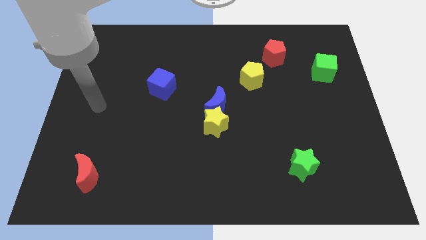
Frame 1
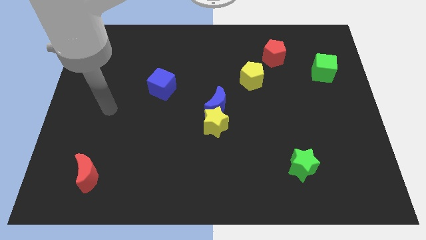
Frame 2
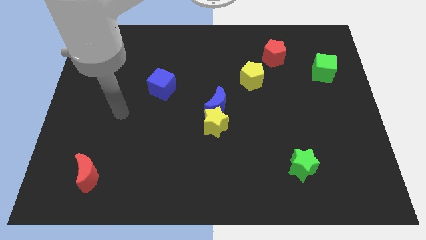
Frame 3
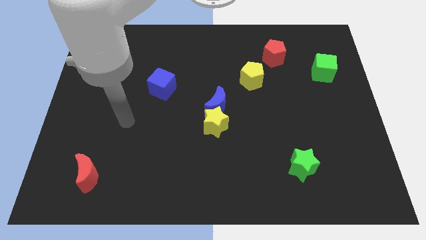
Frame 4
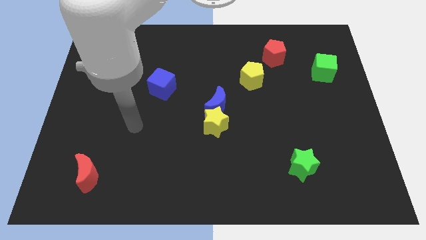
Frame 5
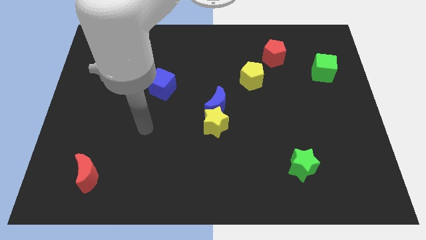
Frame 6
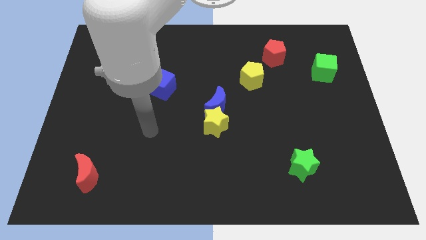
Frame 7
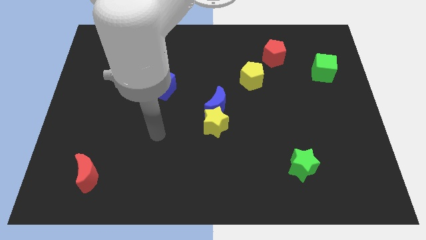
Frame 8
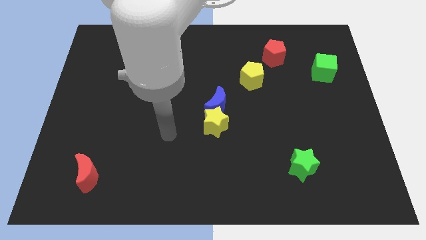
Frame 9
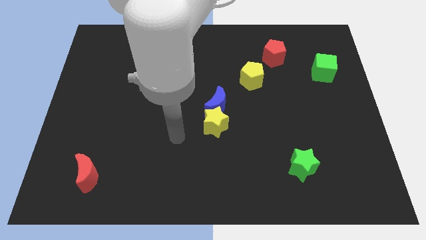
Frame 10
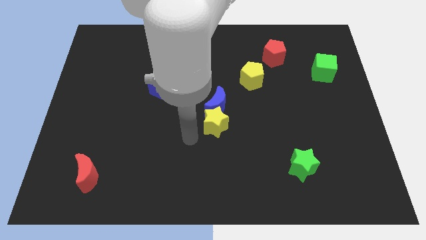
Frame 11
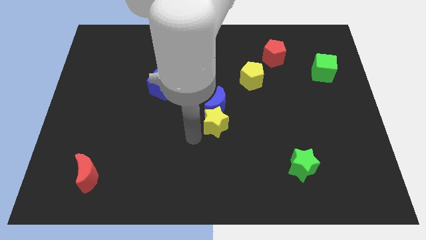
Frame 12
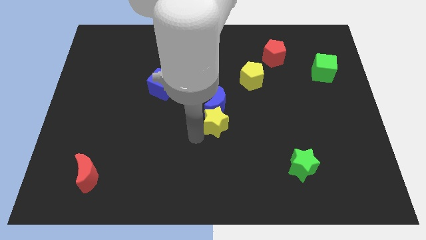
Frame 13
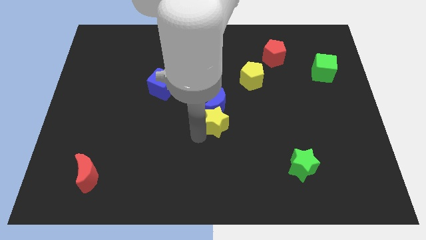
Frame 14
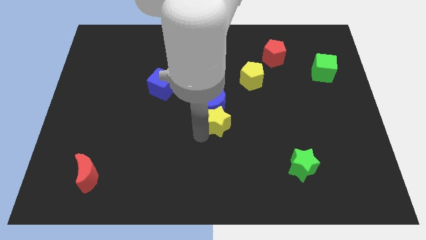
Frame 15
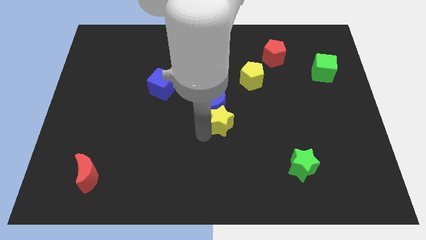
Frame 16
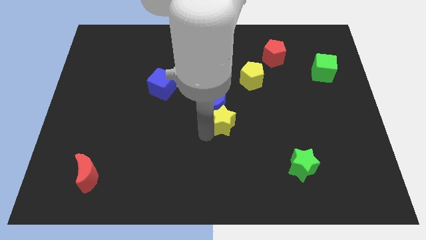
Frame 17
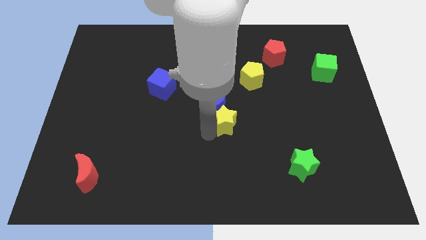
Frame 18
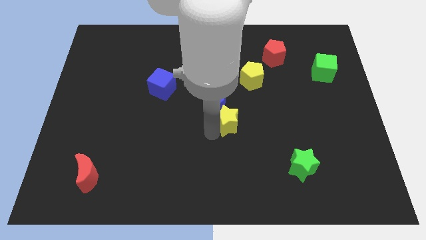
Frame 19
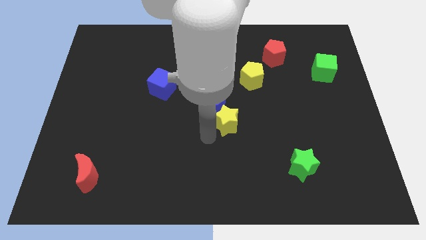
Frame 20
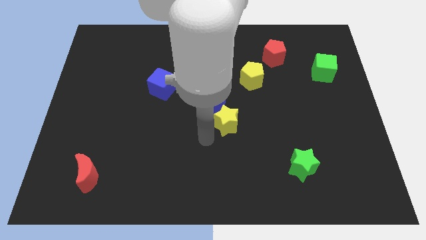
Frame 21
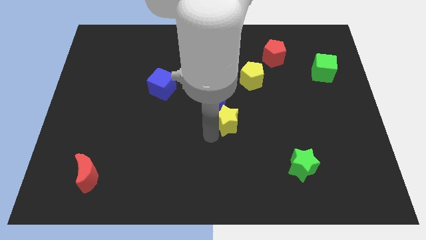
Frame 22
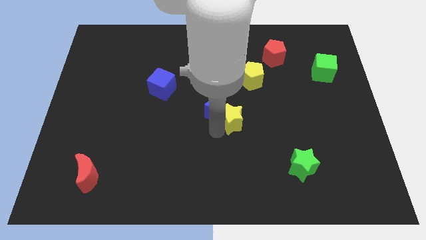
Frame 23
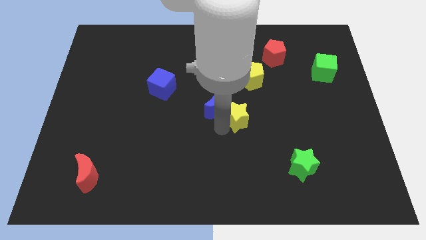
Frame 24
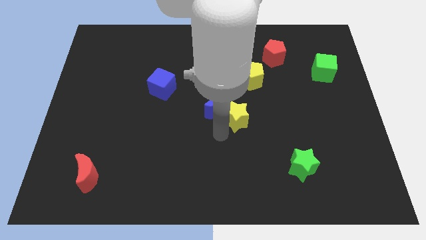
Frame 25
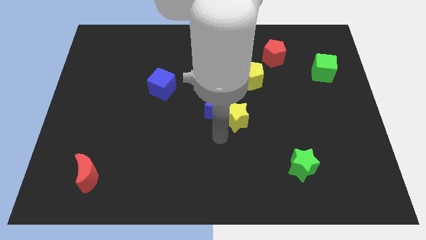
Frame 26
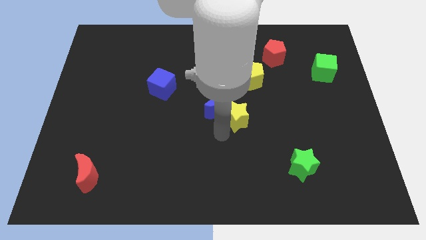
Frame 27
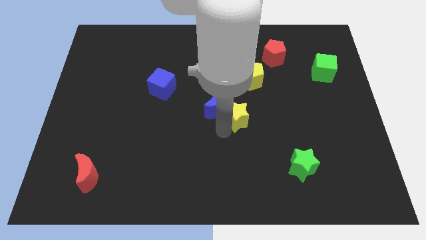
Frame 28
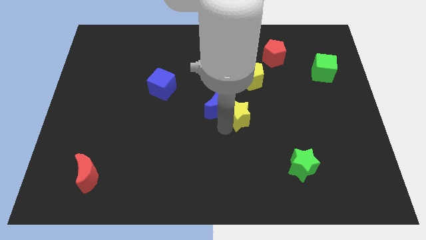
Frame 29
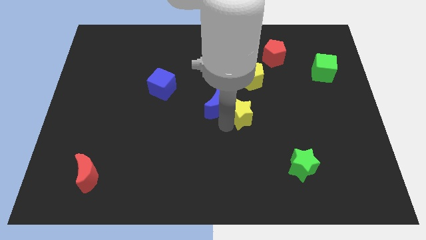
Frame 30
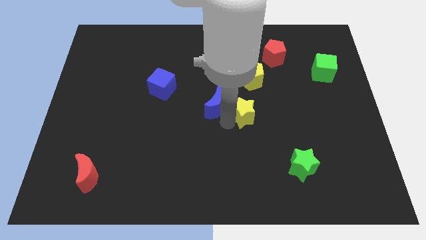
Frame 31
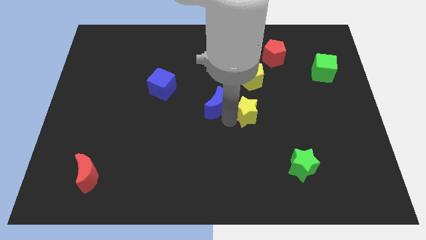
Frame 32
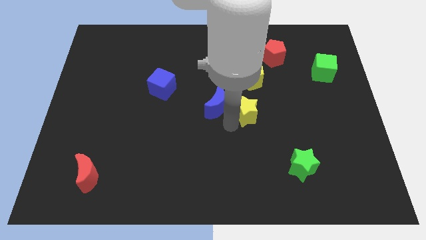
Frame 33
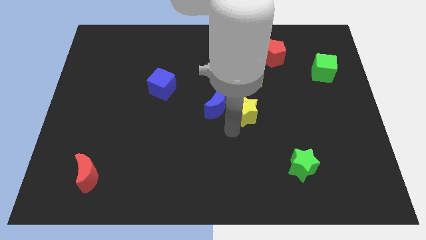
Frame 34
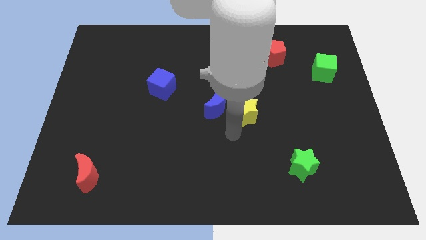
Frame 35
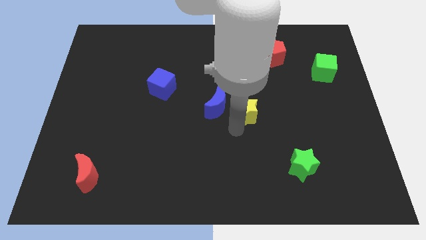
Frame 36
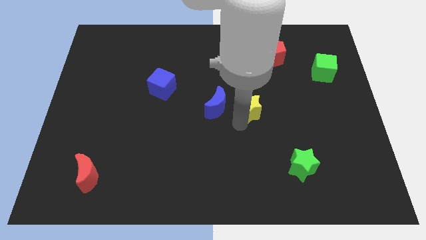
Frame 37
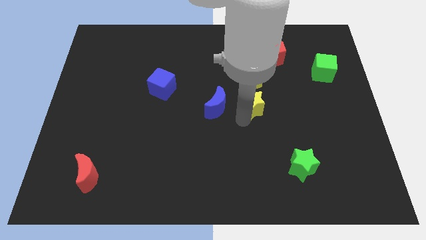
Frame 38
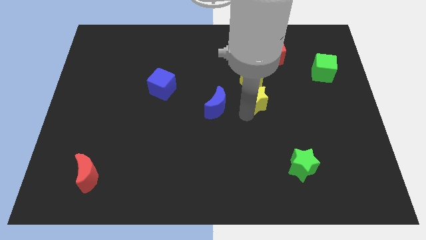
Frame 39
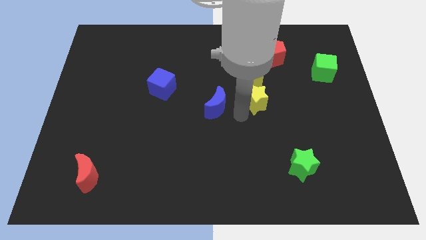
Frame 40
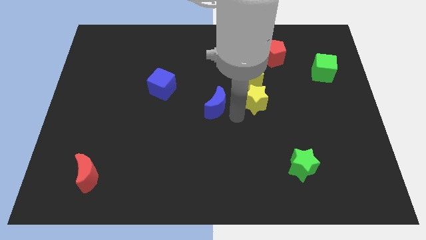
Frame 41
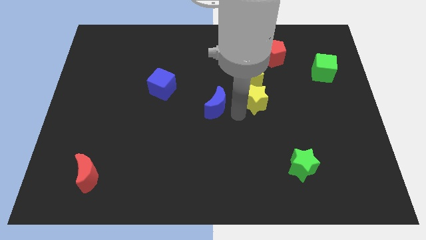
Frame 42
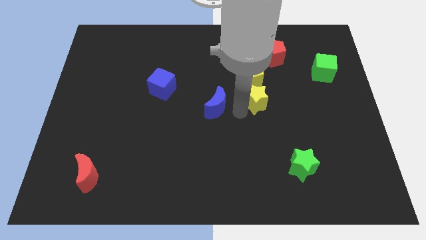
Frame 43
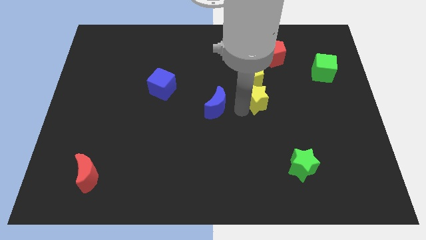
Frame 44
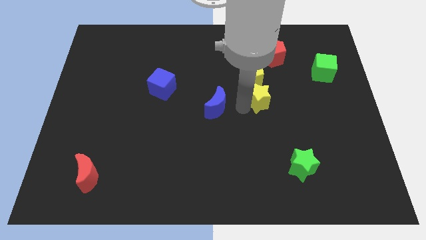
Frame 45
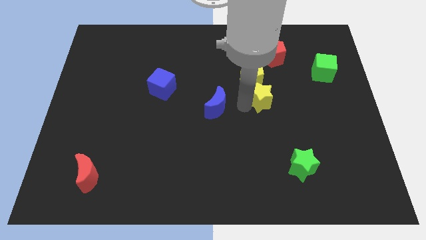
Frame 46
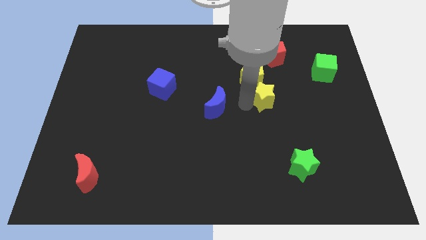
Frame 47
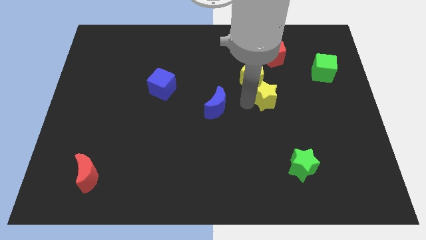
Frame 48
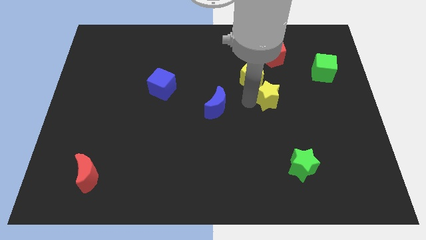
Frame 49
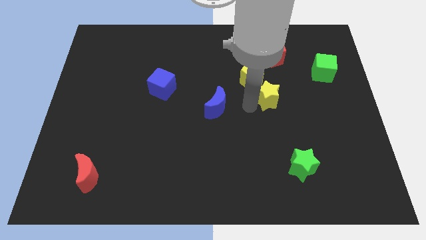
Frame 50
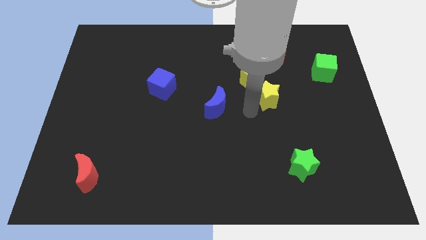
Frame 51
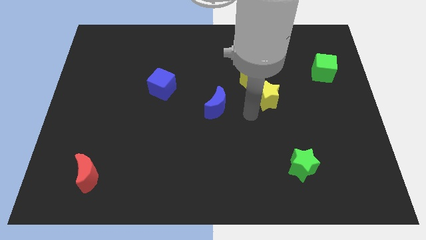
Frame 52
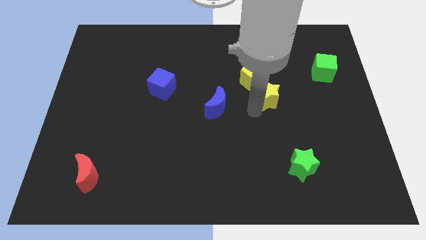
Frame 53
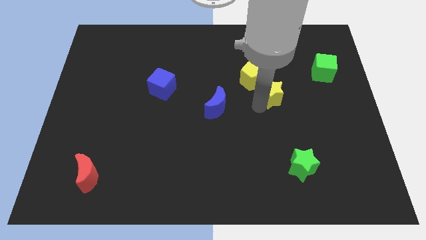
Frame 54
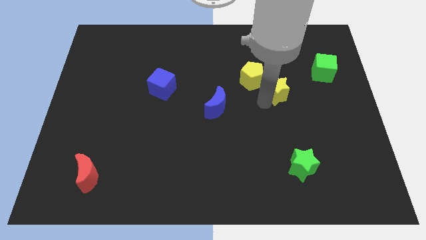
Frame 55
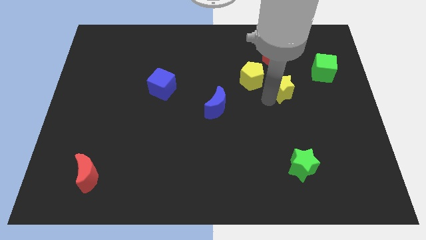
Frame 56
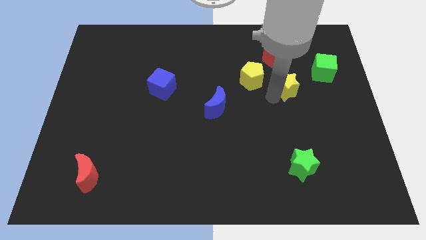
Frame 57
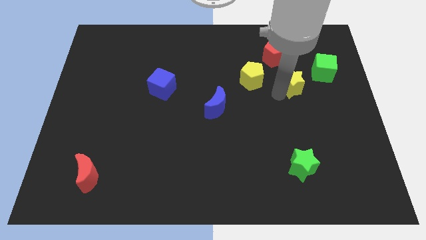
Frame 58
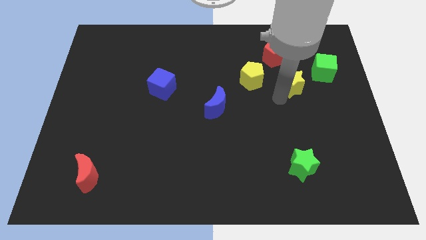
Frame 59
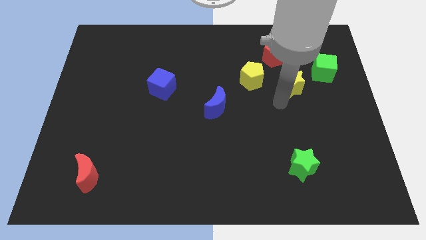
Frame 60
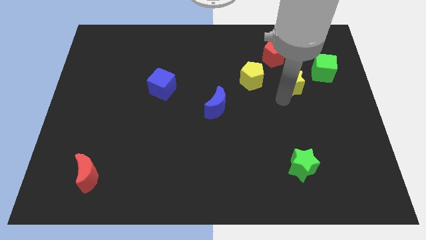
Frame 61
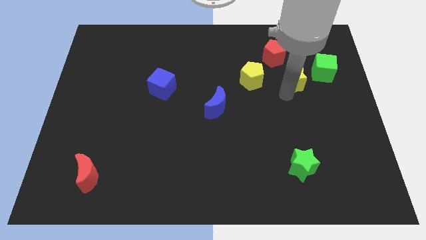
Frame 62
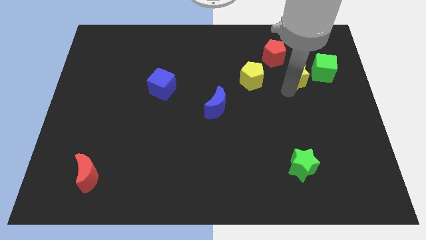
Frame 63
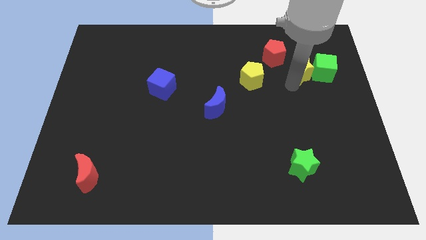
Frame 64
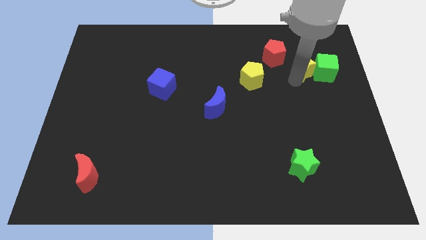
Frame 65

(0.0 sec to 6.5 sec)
push the yellow star just right of the red pentagon

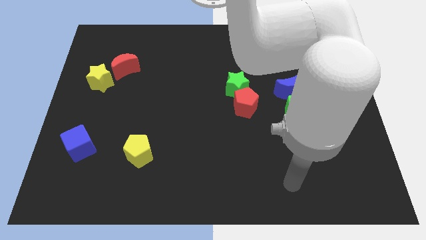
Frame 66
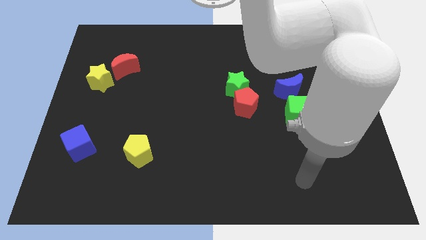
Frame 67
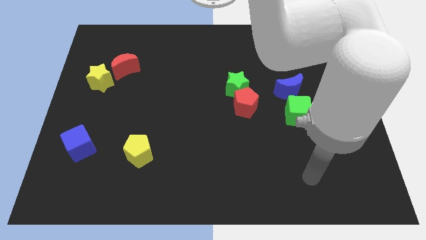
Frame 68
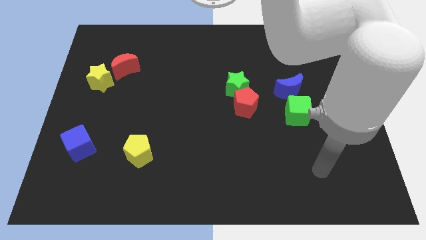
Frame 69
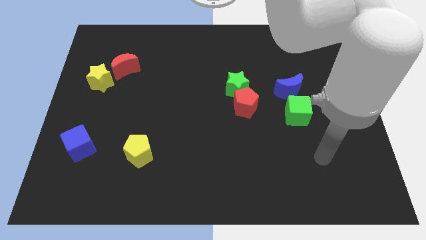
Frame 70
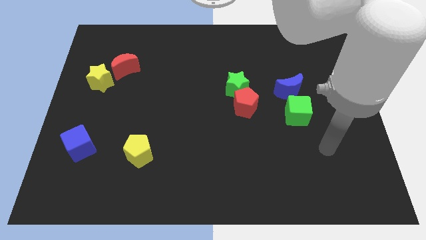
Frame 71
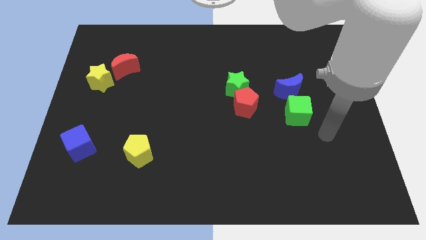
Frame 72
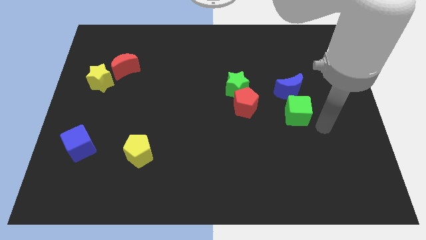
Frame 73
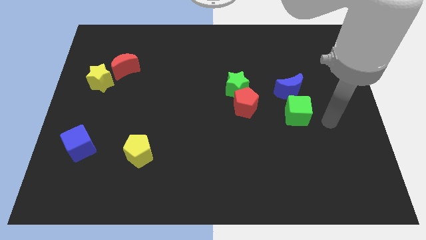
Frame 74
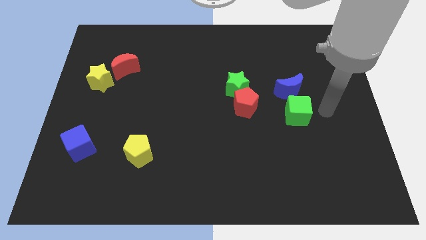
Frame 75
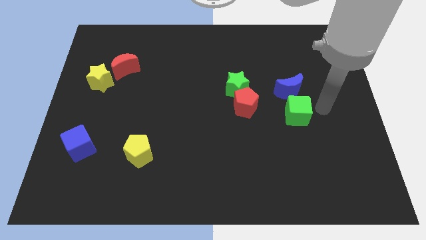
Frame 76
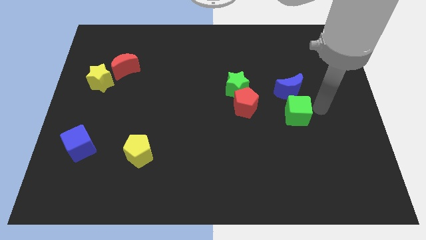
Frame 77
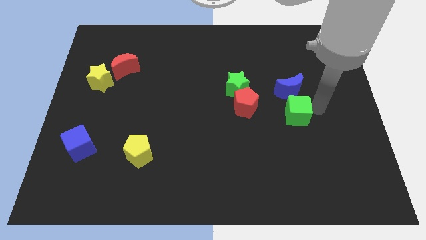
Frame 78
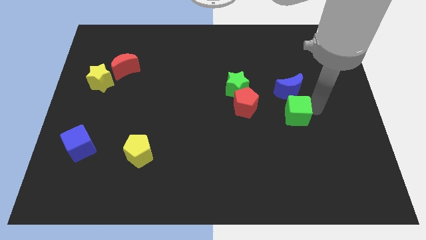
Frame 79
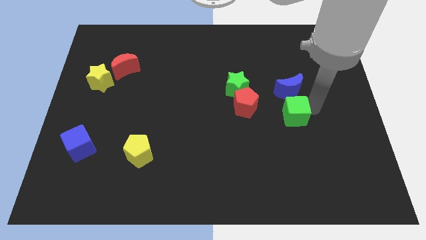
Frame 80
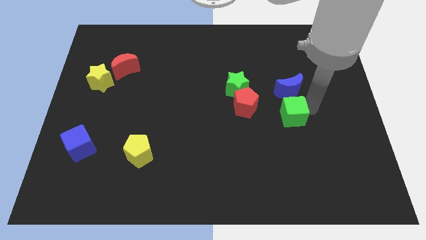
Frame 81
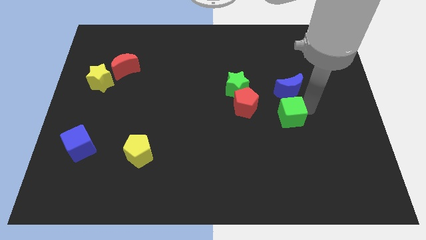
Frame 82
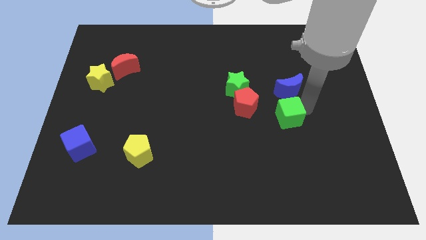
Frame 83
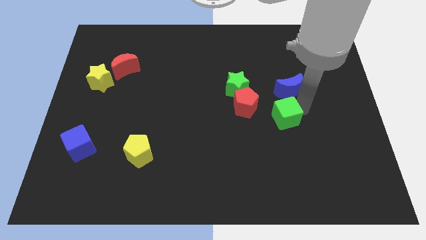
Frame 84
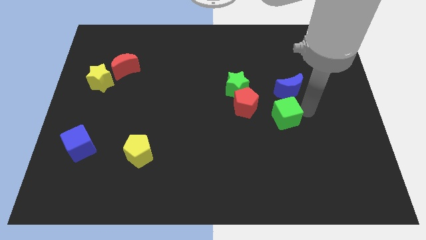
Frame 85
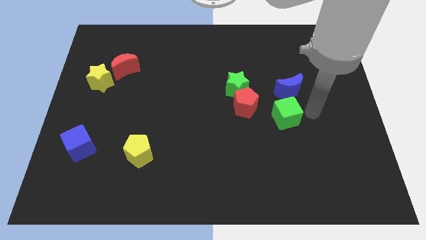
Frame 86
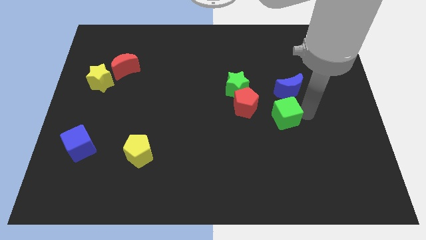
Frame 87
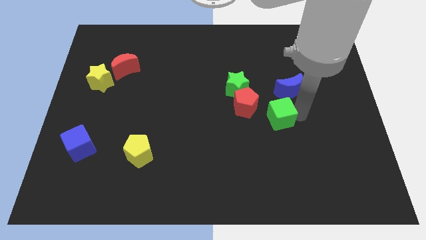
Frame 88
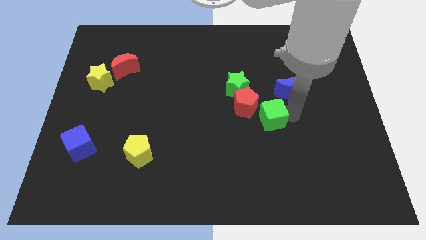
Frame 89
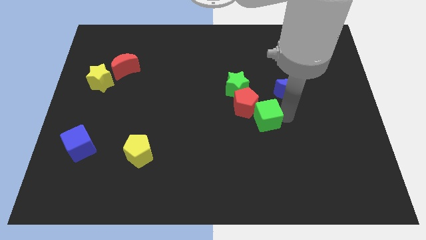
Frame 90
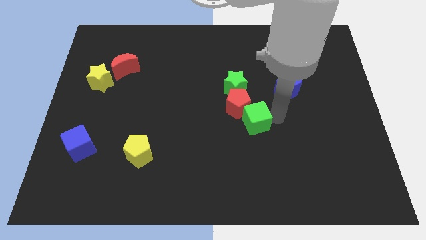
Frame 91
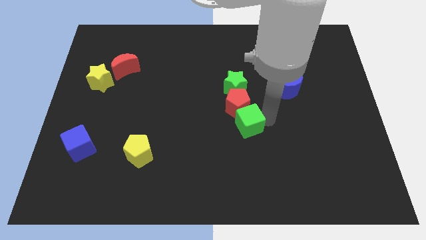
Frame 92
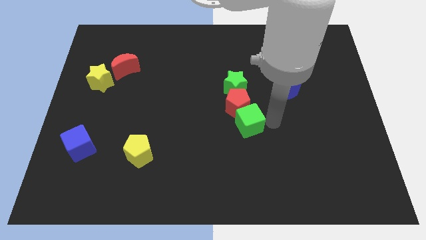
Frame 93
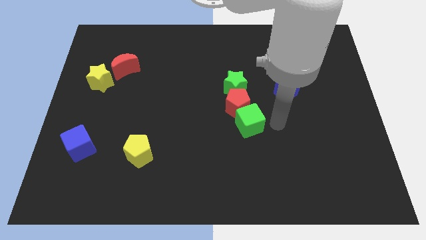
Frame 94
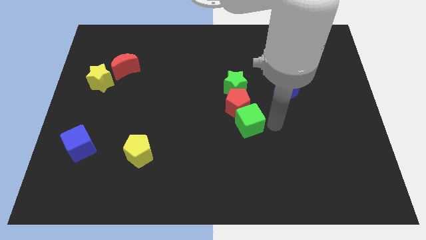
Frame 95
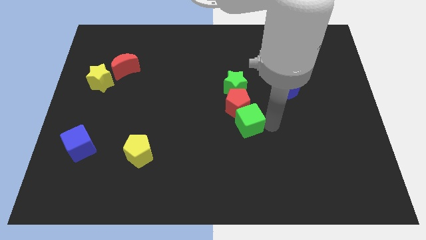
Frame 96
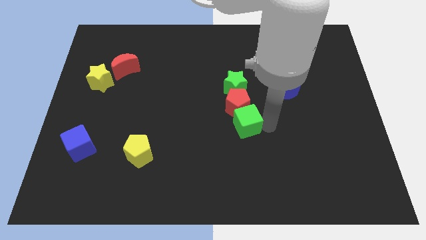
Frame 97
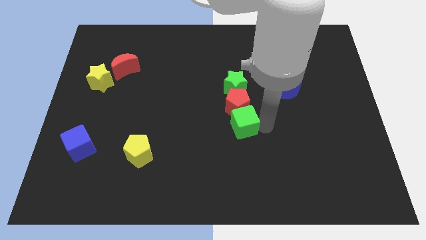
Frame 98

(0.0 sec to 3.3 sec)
put the green cube to the bottom left side of the red pentagon
